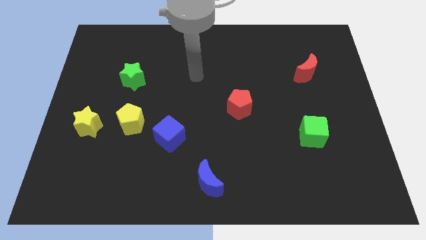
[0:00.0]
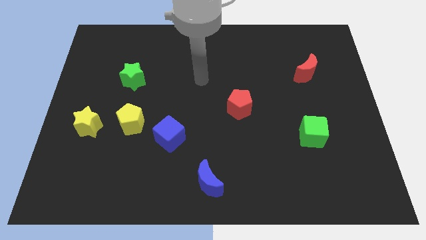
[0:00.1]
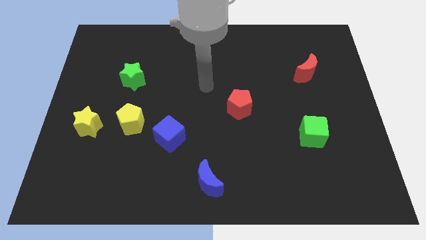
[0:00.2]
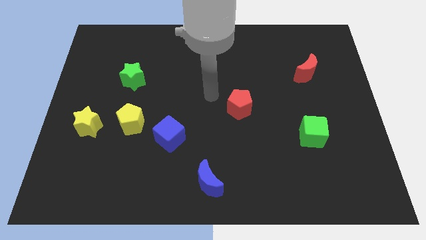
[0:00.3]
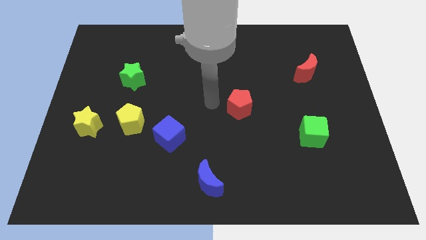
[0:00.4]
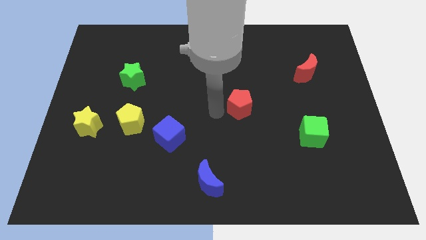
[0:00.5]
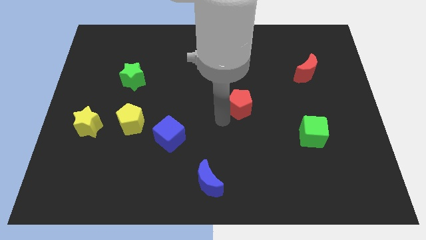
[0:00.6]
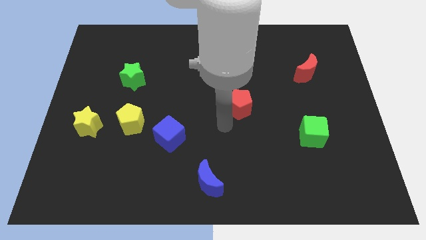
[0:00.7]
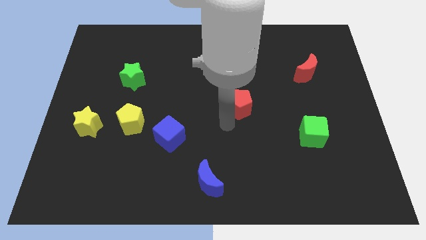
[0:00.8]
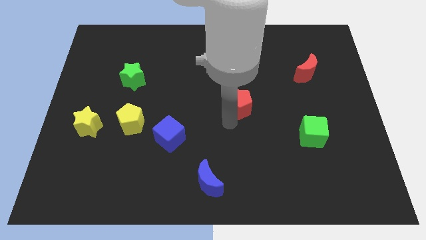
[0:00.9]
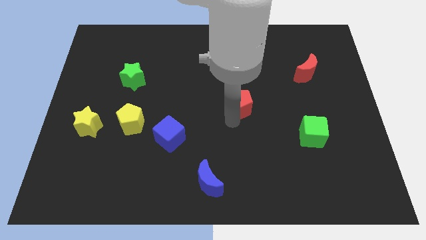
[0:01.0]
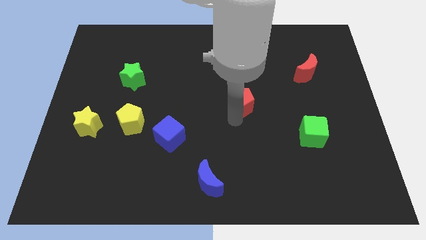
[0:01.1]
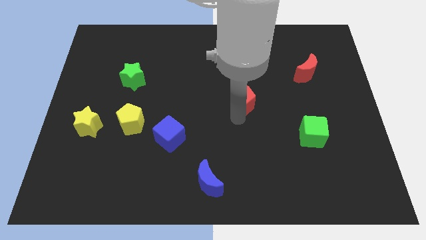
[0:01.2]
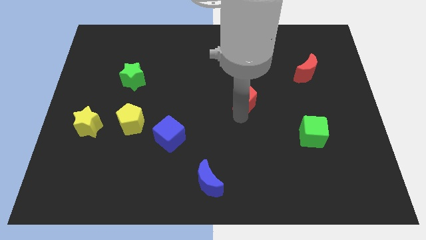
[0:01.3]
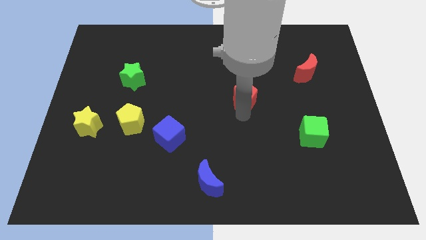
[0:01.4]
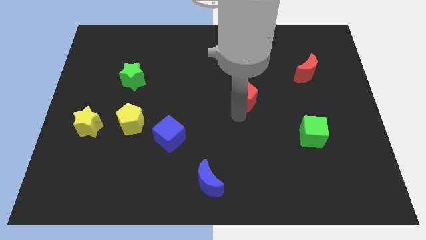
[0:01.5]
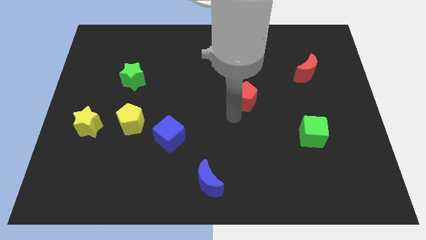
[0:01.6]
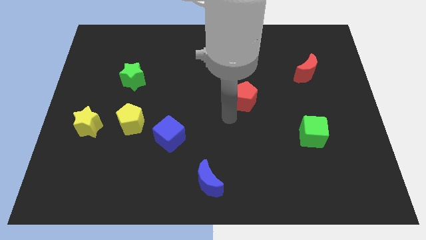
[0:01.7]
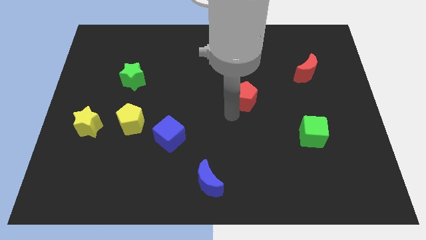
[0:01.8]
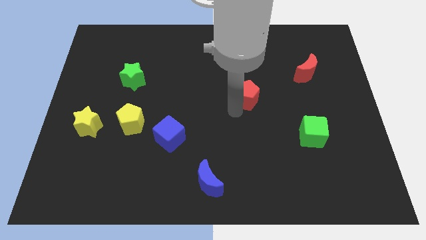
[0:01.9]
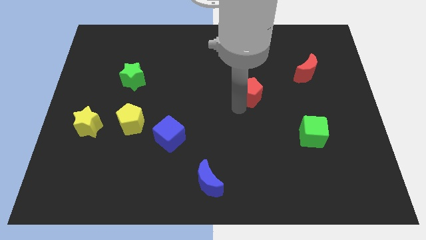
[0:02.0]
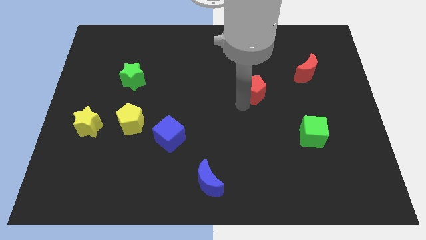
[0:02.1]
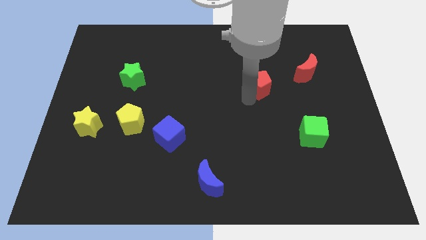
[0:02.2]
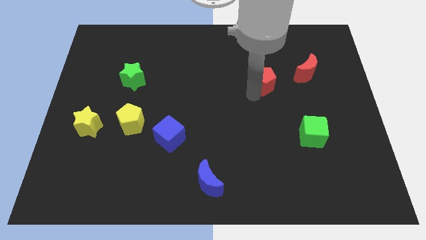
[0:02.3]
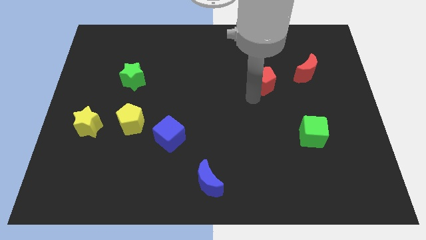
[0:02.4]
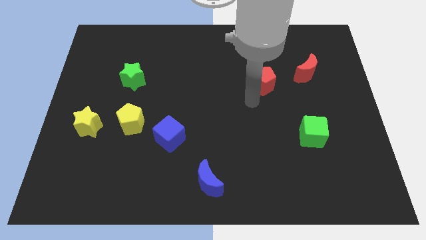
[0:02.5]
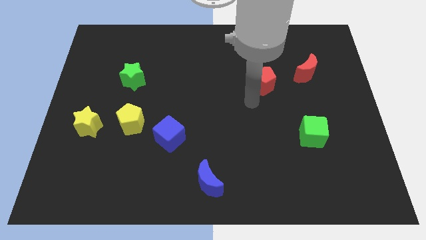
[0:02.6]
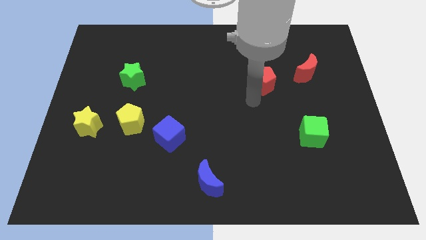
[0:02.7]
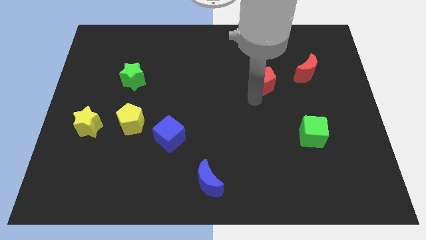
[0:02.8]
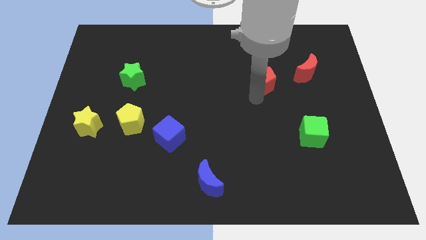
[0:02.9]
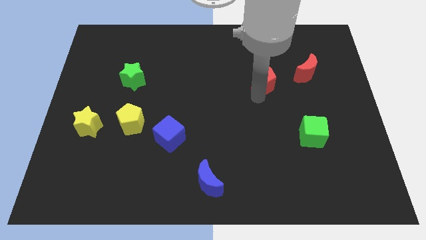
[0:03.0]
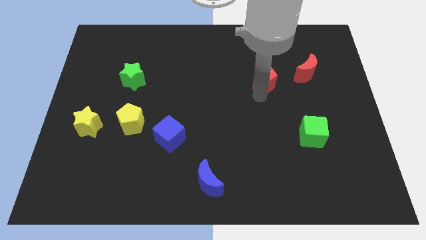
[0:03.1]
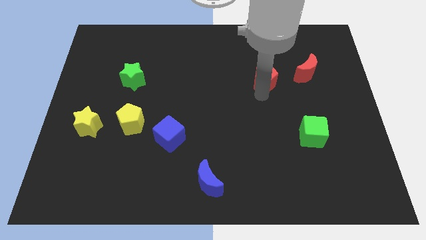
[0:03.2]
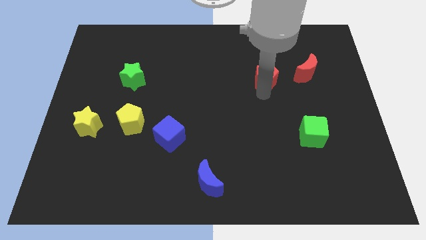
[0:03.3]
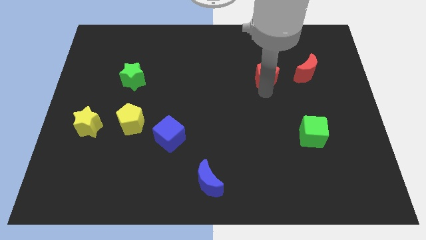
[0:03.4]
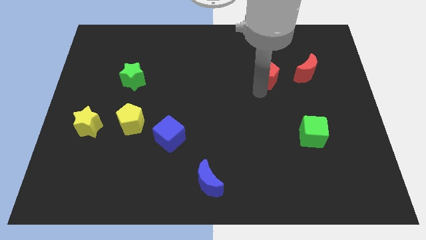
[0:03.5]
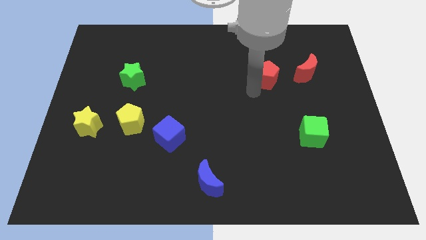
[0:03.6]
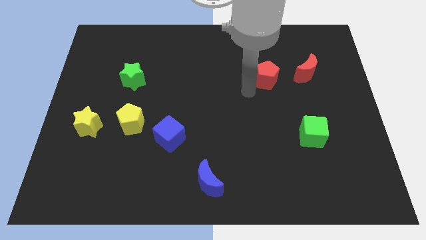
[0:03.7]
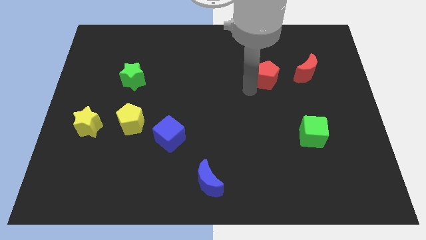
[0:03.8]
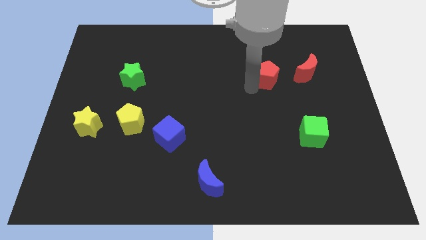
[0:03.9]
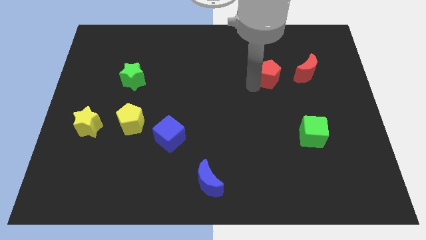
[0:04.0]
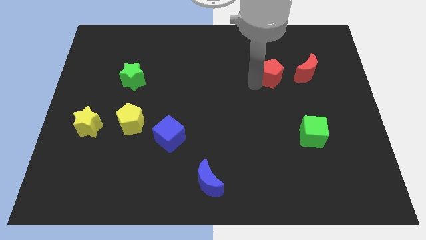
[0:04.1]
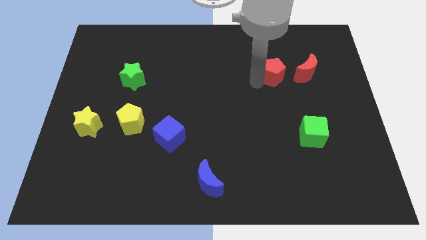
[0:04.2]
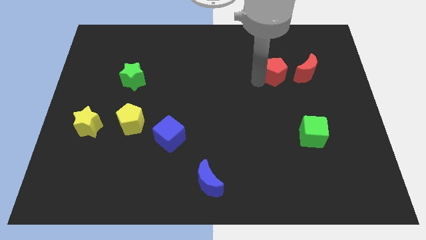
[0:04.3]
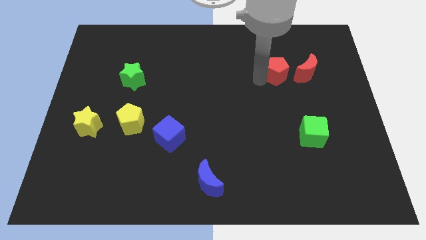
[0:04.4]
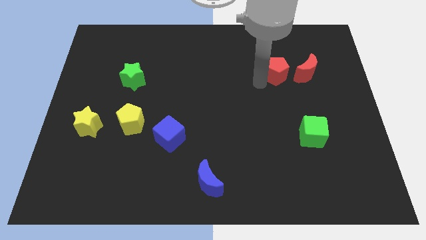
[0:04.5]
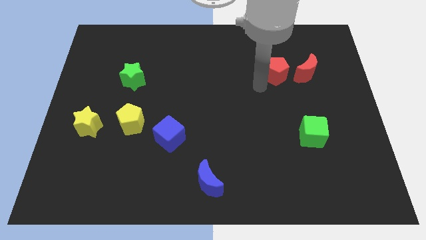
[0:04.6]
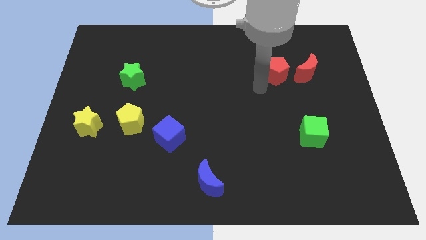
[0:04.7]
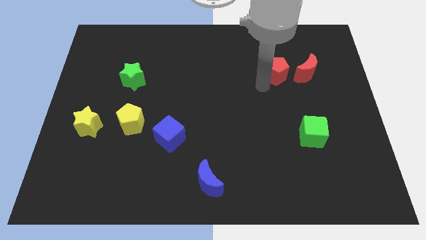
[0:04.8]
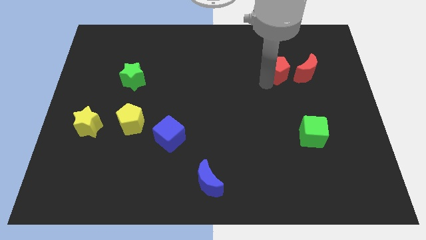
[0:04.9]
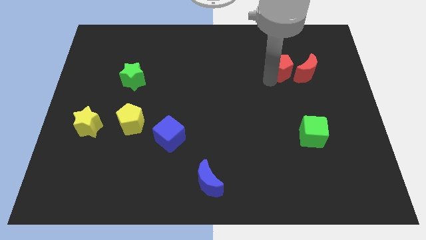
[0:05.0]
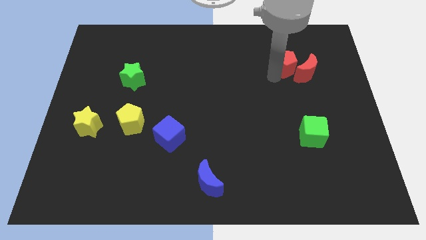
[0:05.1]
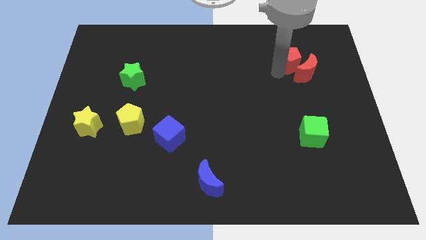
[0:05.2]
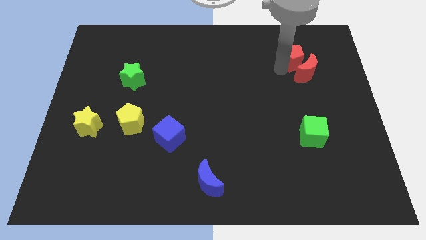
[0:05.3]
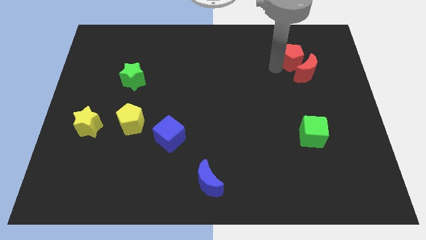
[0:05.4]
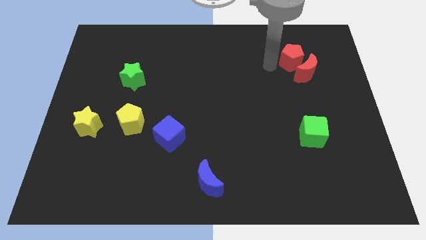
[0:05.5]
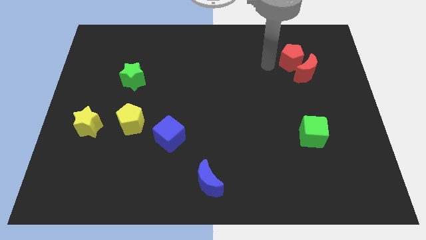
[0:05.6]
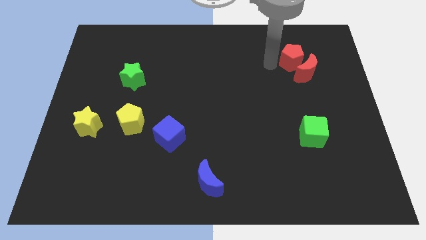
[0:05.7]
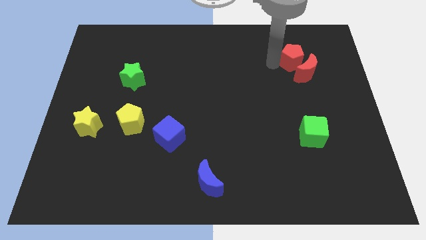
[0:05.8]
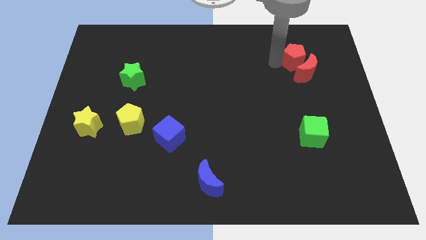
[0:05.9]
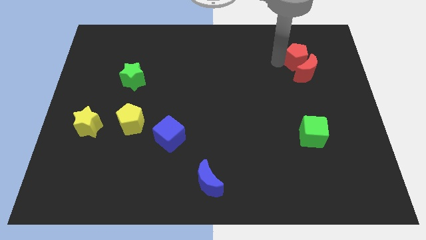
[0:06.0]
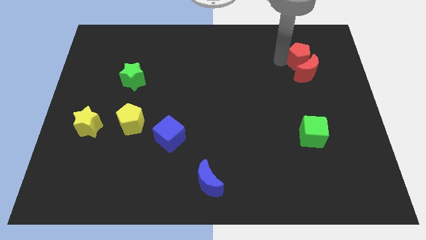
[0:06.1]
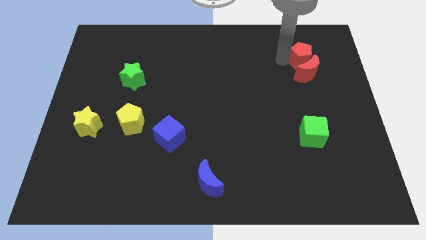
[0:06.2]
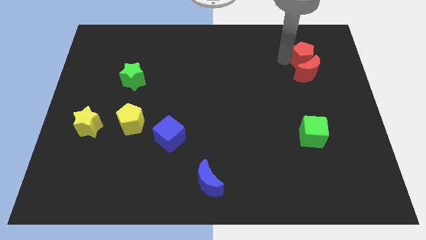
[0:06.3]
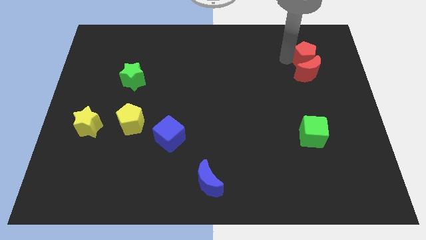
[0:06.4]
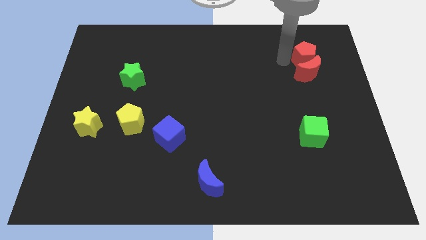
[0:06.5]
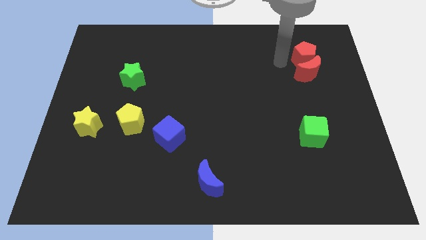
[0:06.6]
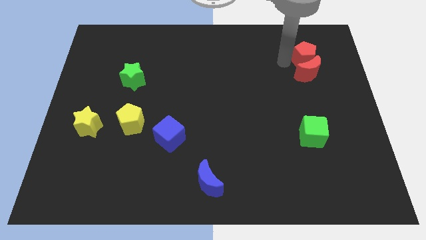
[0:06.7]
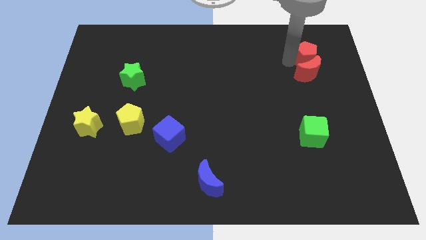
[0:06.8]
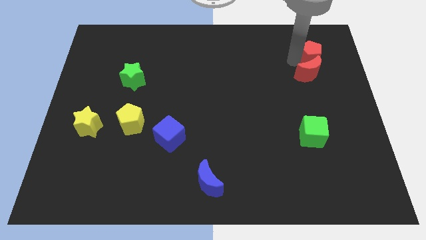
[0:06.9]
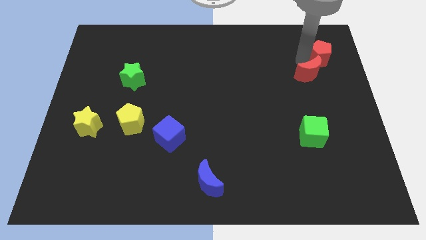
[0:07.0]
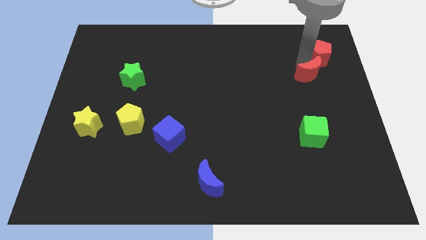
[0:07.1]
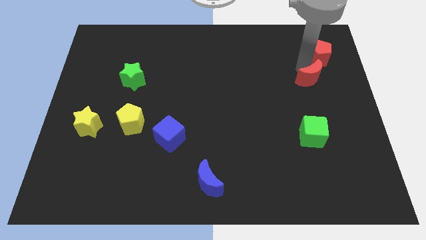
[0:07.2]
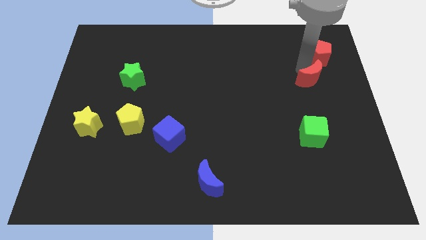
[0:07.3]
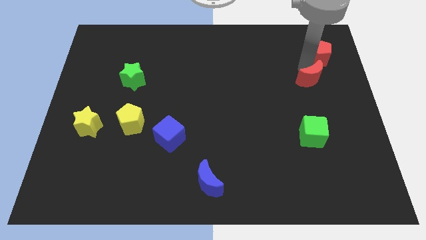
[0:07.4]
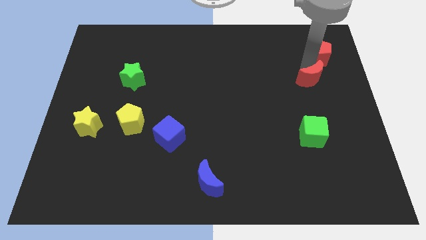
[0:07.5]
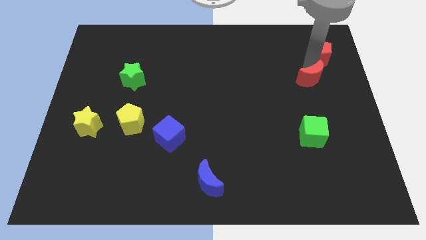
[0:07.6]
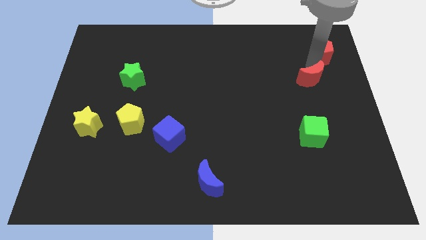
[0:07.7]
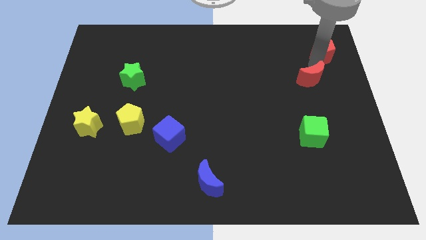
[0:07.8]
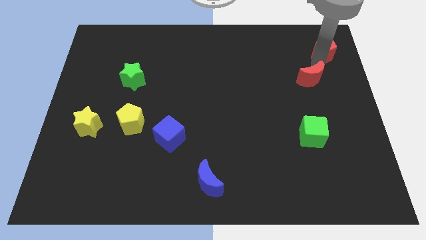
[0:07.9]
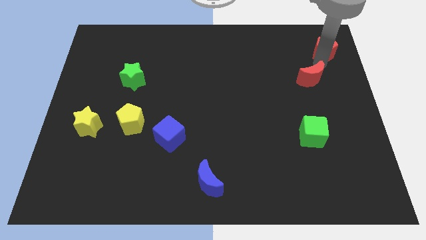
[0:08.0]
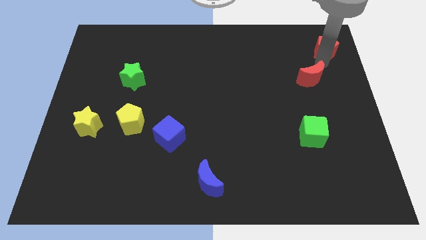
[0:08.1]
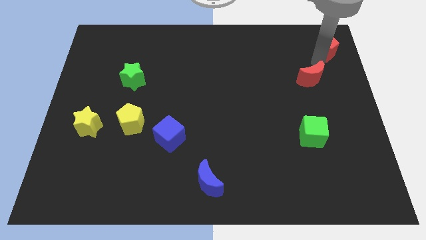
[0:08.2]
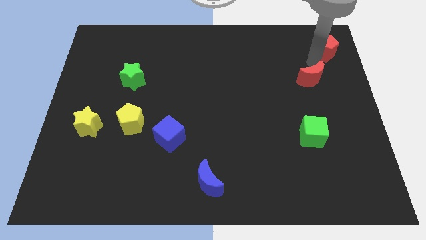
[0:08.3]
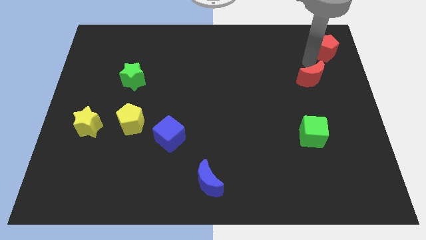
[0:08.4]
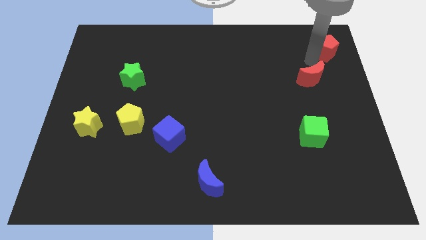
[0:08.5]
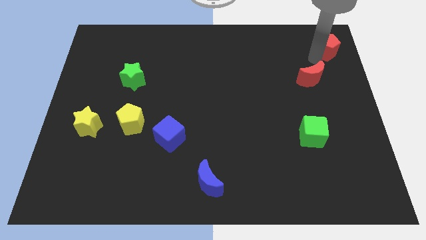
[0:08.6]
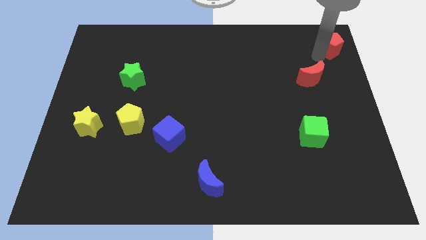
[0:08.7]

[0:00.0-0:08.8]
slide the red pentagon to the top right of the board
